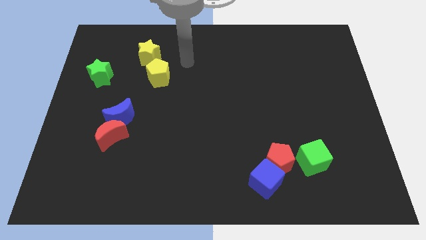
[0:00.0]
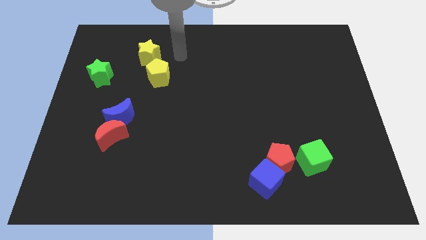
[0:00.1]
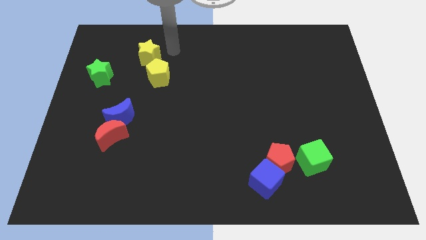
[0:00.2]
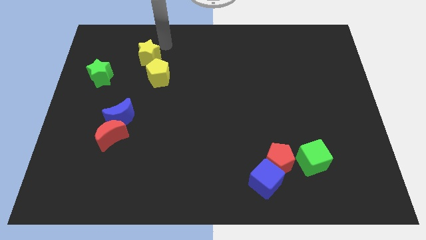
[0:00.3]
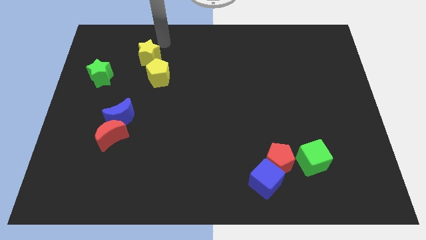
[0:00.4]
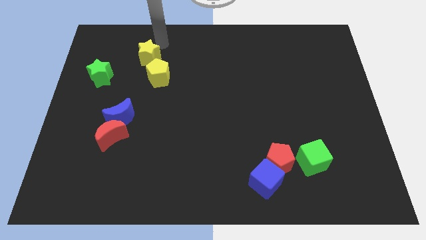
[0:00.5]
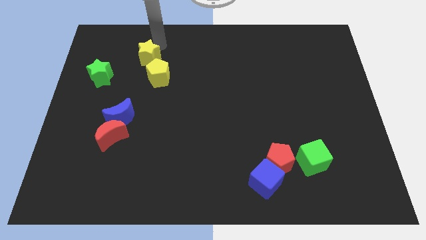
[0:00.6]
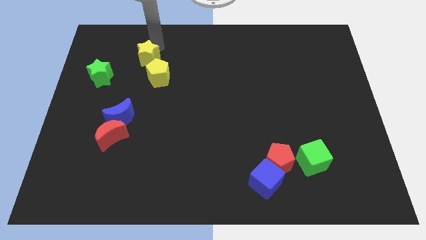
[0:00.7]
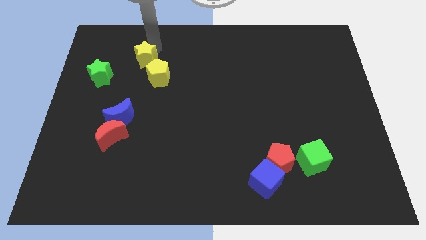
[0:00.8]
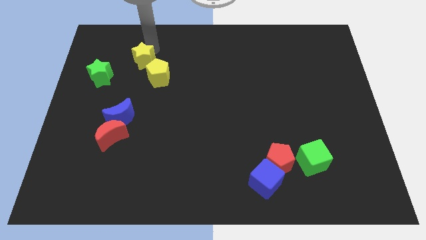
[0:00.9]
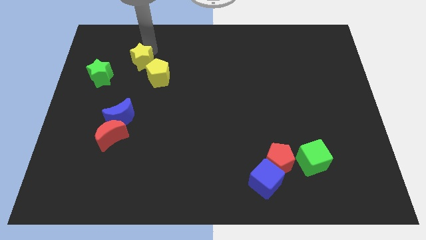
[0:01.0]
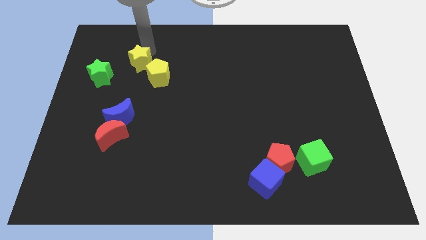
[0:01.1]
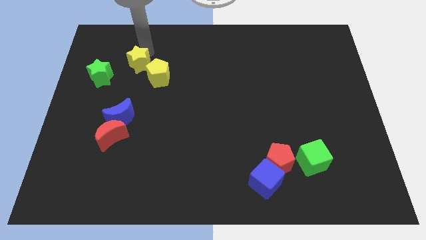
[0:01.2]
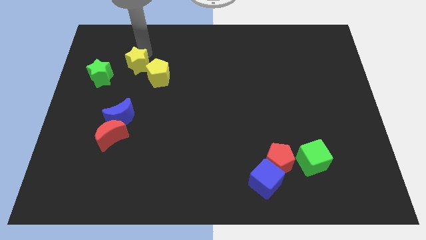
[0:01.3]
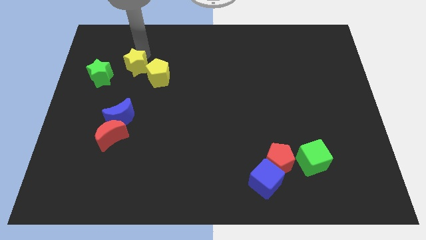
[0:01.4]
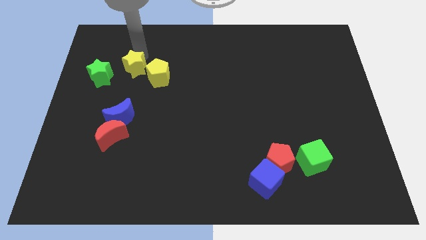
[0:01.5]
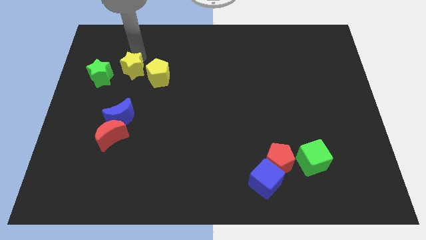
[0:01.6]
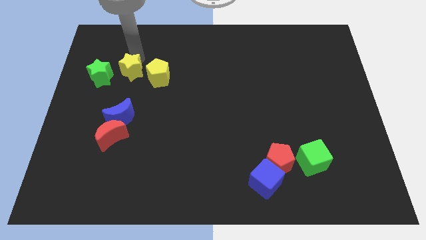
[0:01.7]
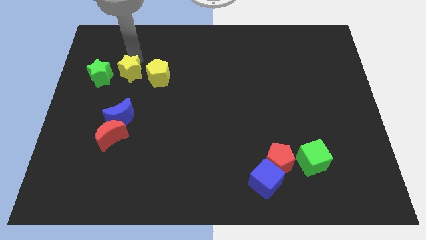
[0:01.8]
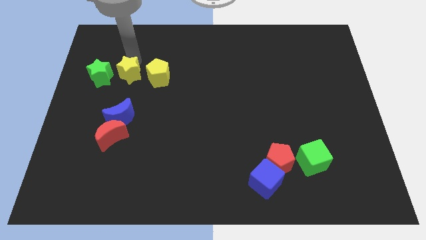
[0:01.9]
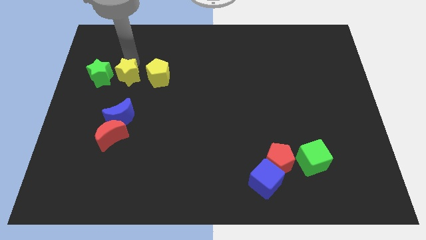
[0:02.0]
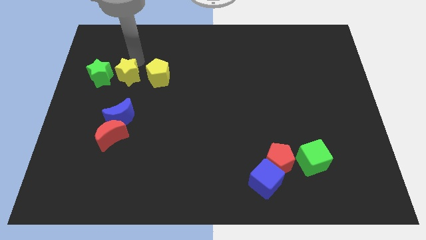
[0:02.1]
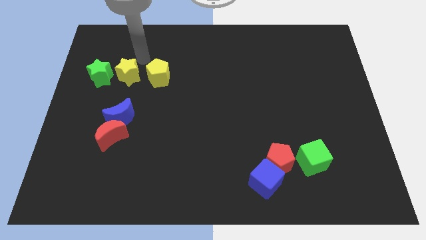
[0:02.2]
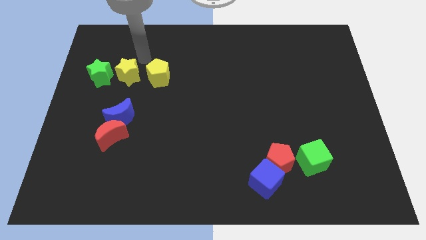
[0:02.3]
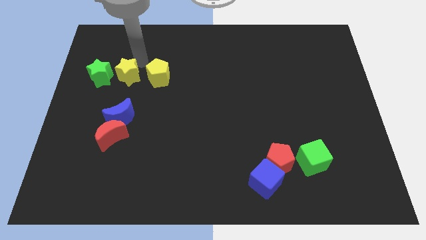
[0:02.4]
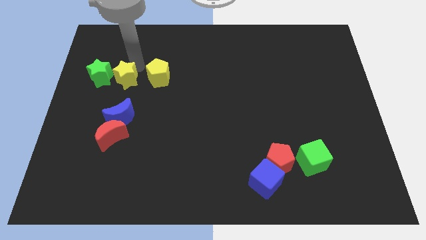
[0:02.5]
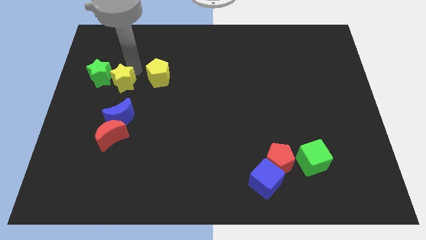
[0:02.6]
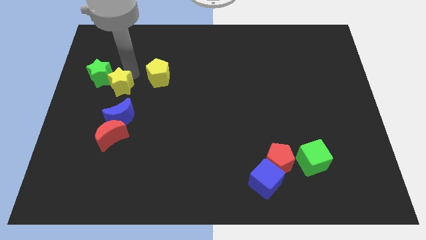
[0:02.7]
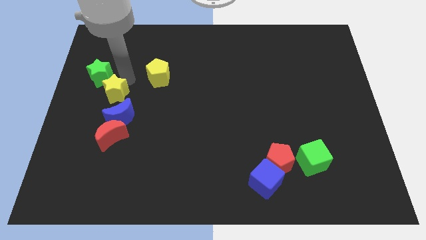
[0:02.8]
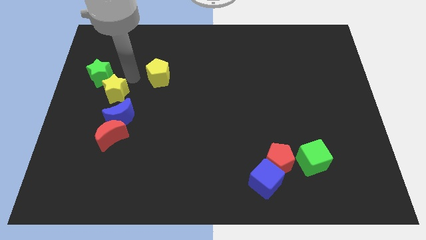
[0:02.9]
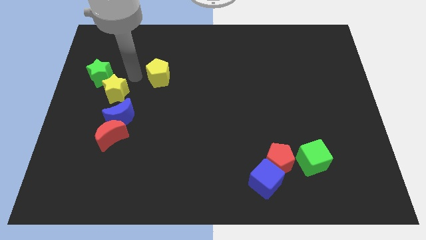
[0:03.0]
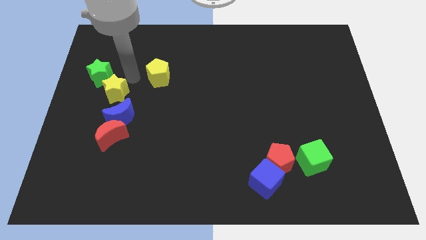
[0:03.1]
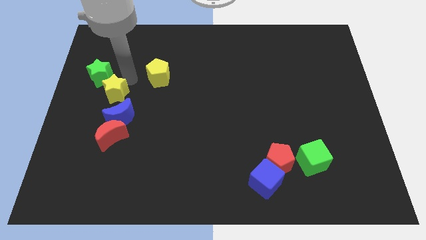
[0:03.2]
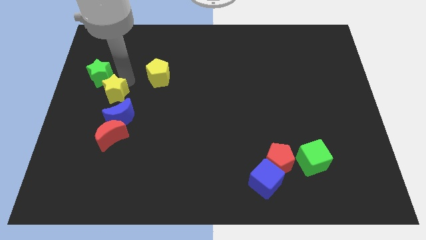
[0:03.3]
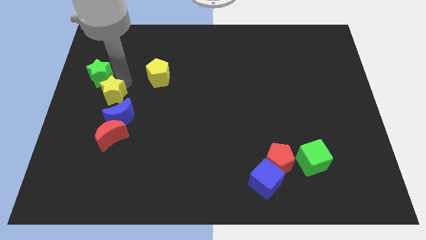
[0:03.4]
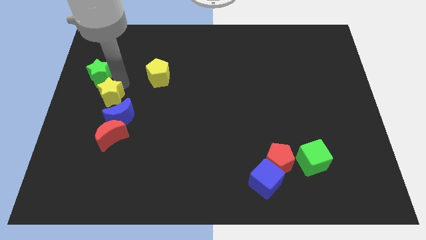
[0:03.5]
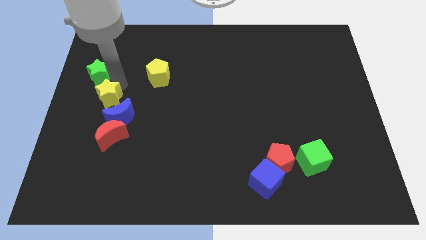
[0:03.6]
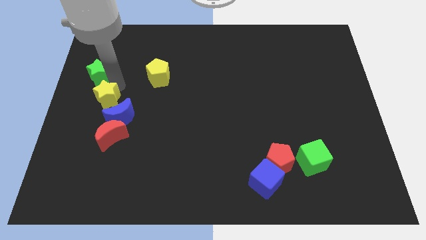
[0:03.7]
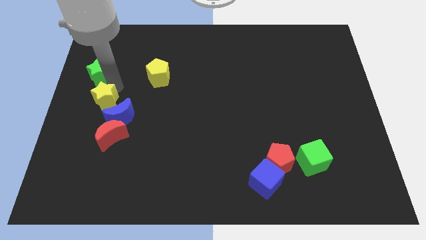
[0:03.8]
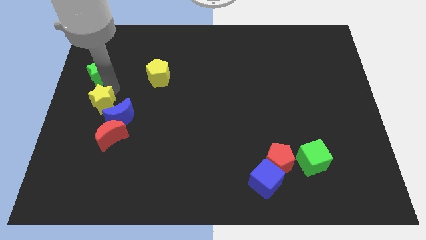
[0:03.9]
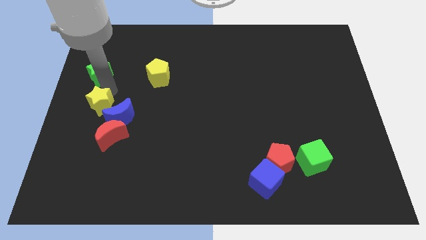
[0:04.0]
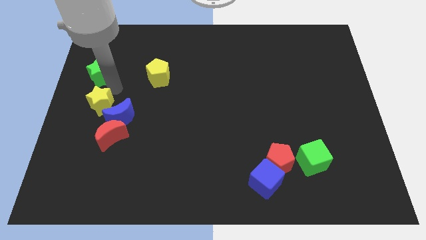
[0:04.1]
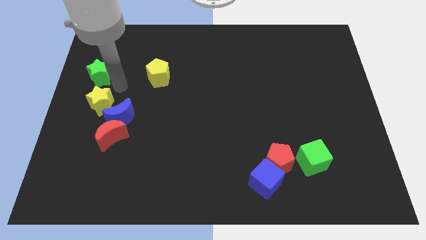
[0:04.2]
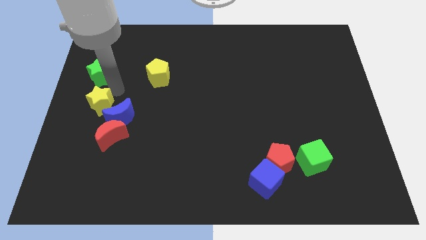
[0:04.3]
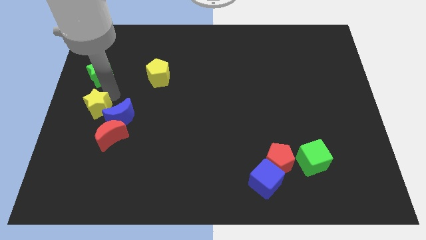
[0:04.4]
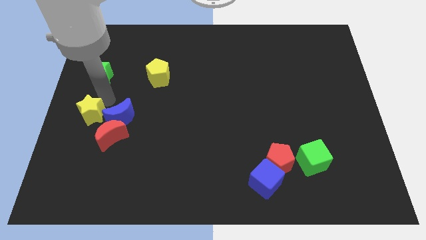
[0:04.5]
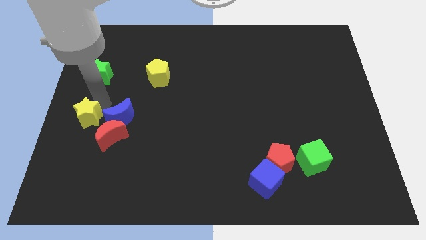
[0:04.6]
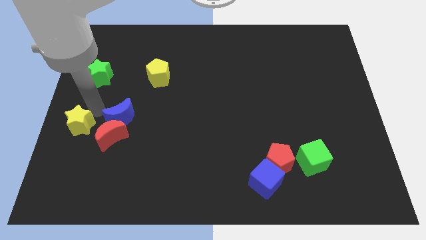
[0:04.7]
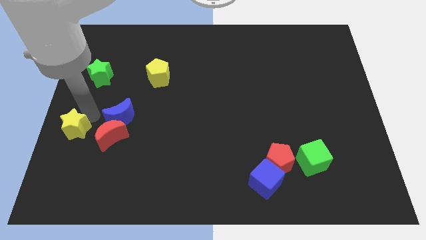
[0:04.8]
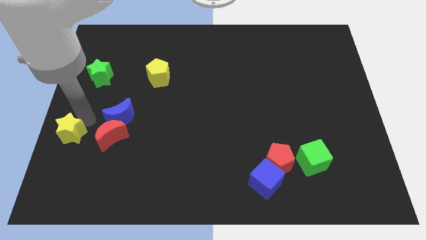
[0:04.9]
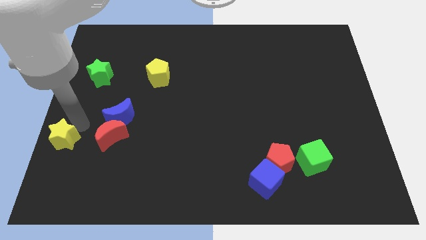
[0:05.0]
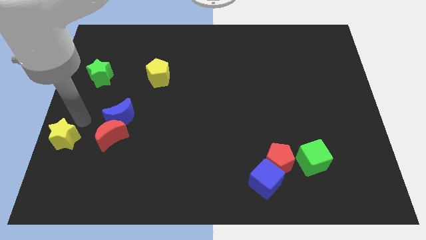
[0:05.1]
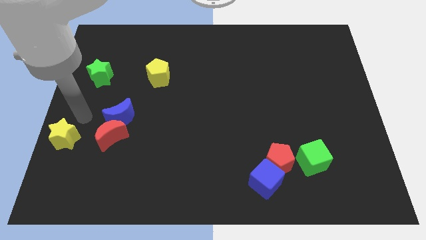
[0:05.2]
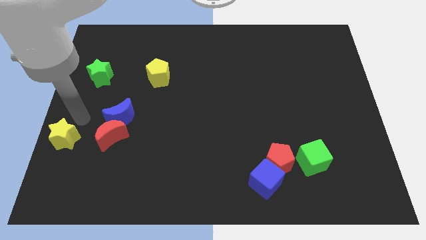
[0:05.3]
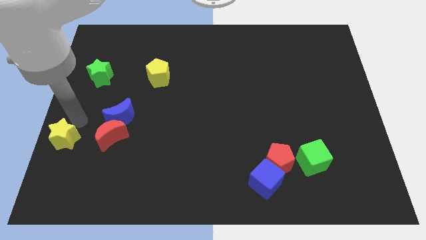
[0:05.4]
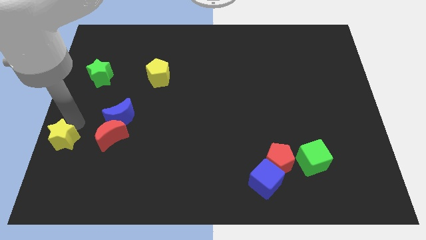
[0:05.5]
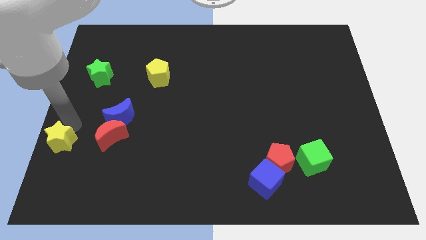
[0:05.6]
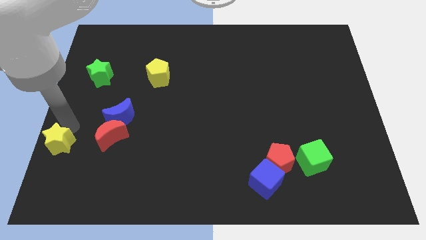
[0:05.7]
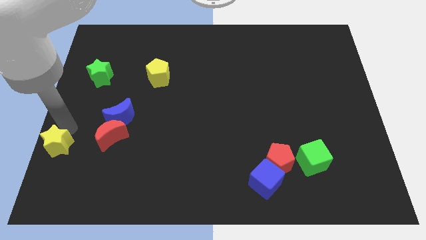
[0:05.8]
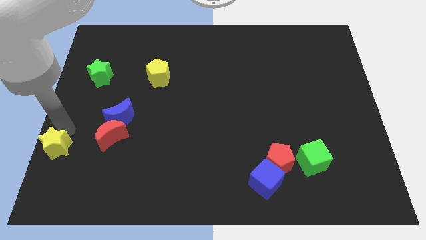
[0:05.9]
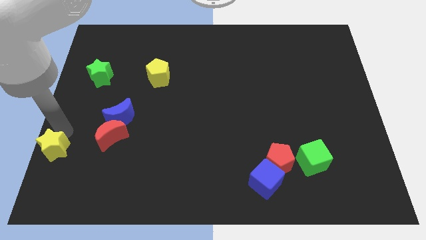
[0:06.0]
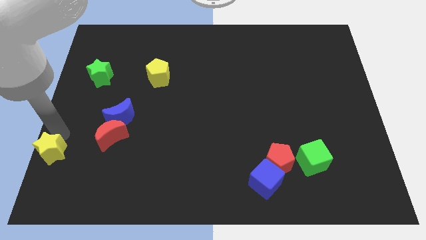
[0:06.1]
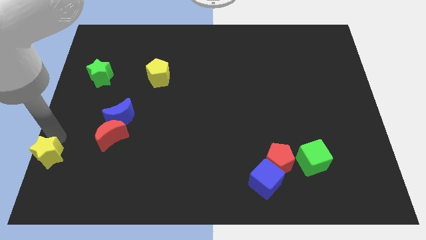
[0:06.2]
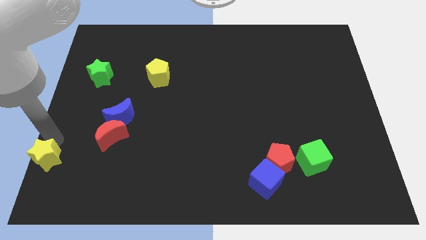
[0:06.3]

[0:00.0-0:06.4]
move the yellow star to the bottom left of the board
